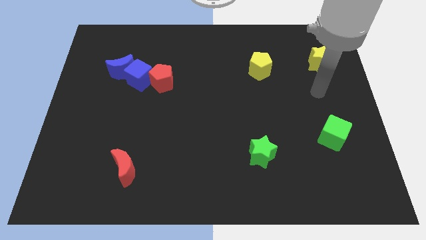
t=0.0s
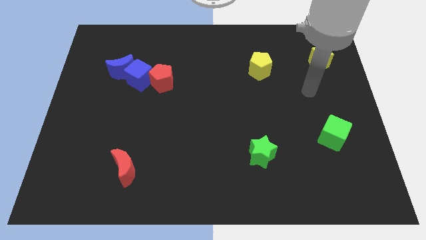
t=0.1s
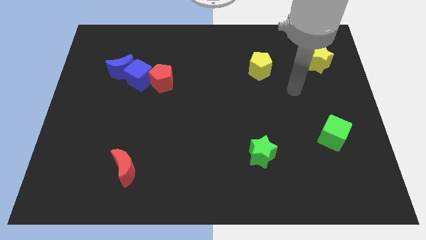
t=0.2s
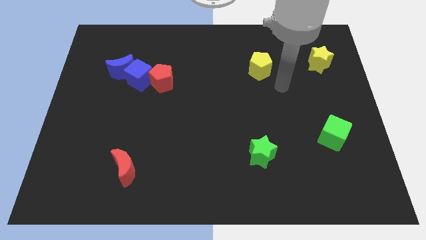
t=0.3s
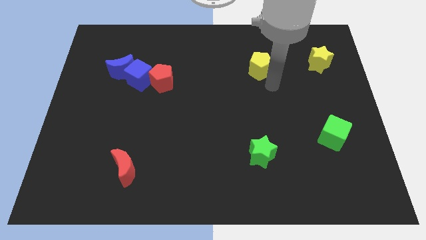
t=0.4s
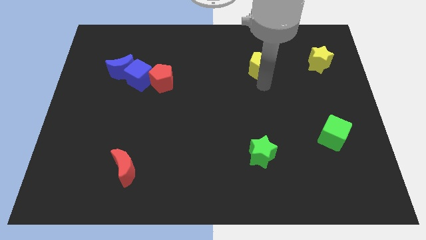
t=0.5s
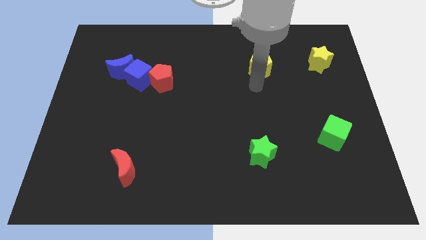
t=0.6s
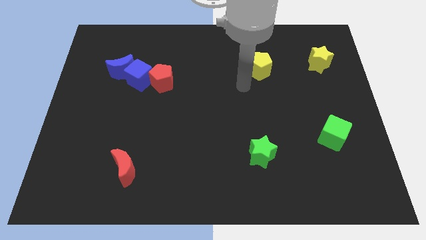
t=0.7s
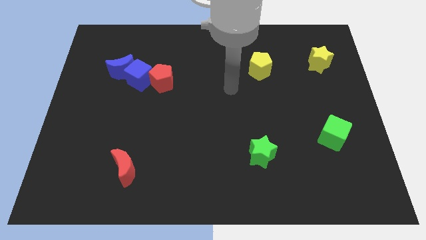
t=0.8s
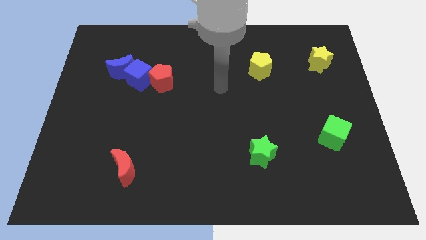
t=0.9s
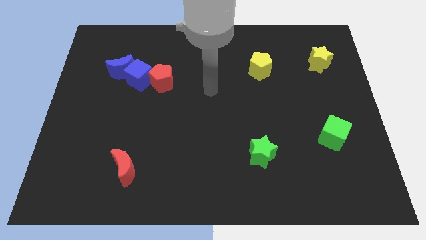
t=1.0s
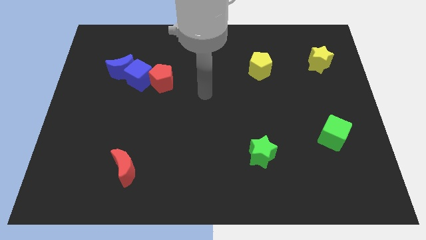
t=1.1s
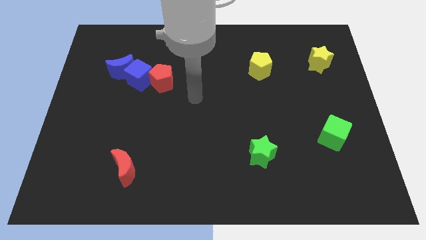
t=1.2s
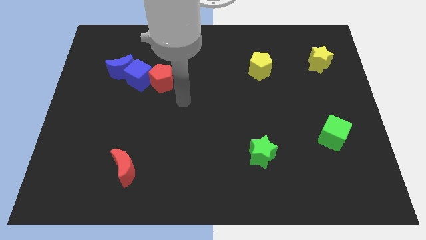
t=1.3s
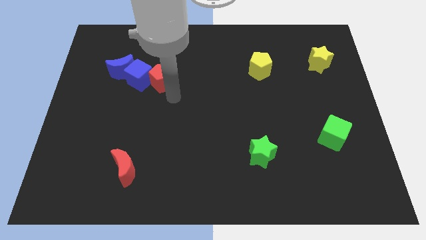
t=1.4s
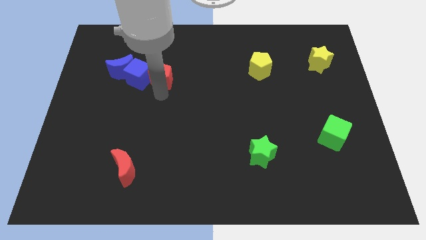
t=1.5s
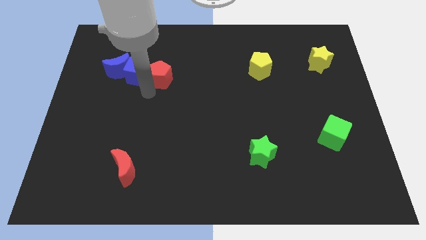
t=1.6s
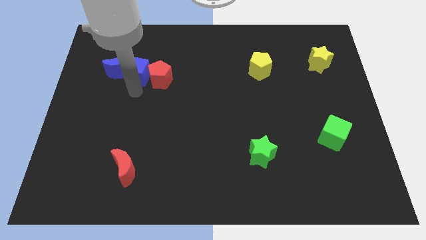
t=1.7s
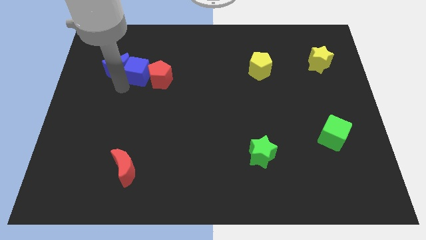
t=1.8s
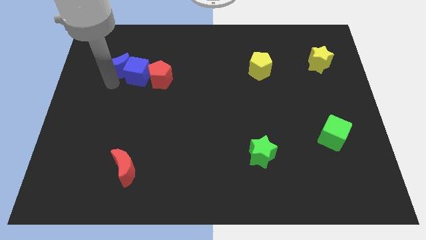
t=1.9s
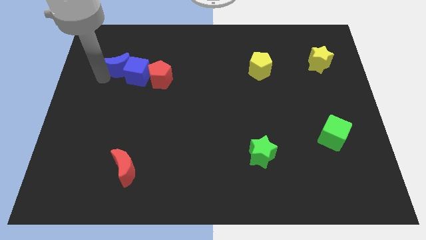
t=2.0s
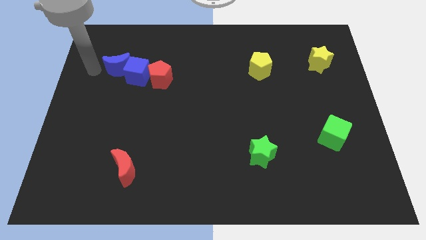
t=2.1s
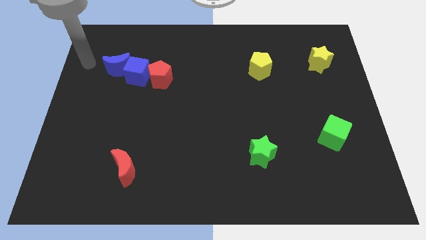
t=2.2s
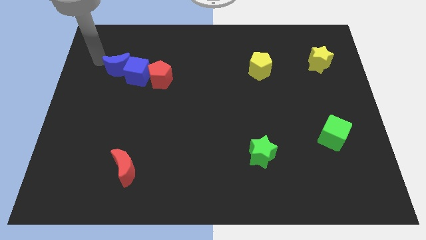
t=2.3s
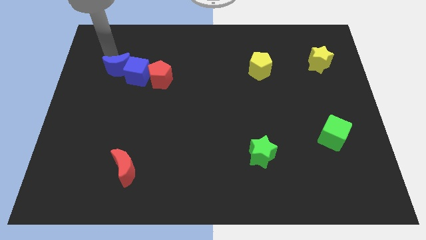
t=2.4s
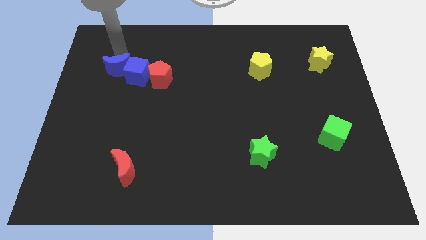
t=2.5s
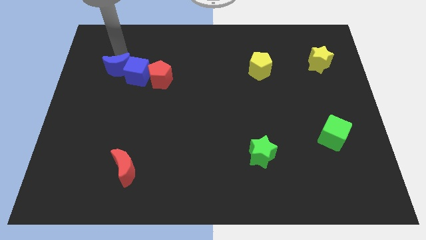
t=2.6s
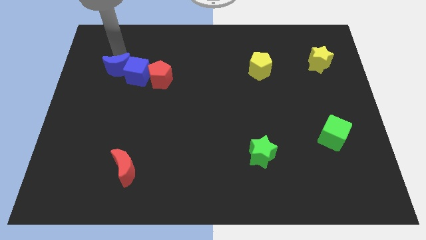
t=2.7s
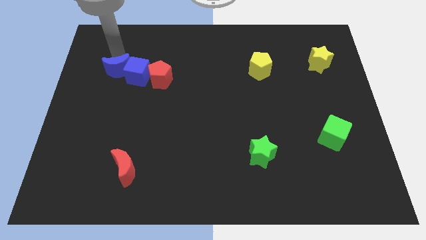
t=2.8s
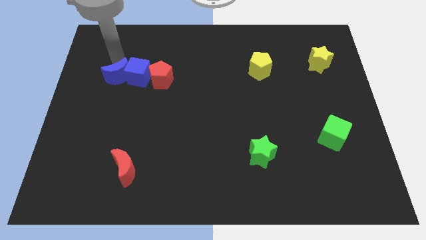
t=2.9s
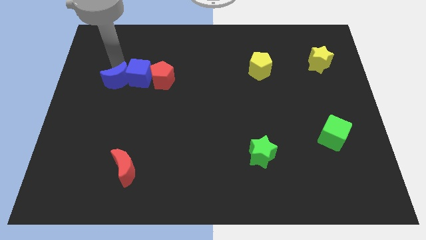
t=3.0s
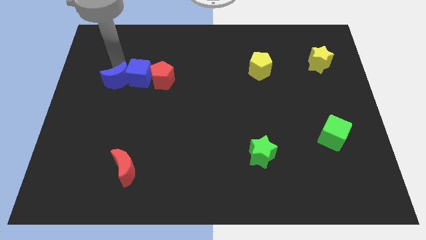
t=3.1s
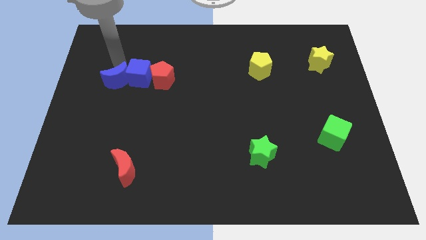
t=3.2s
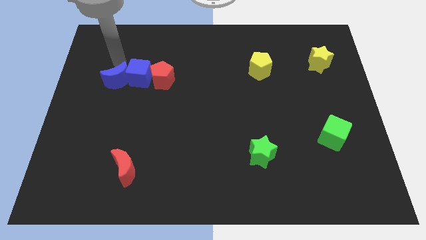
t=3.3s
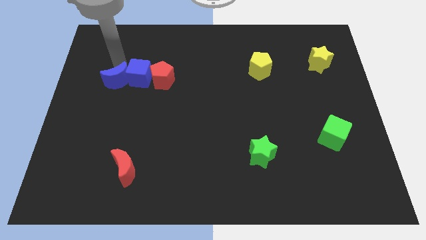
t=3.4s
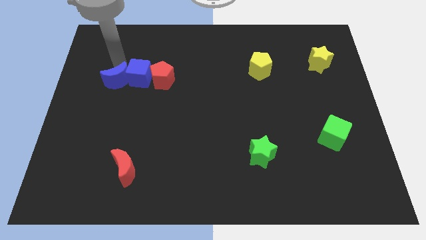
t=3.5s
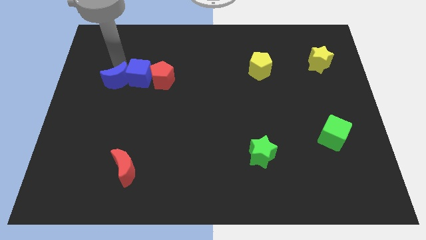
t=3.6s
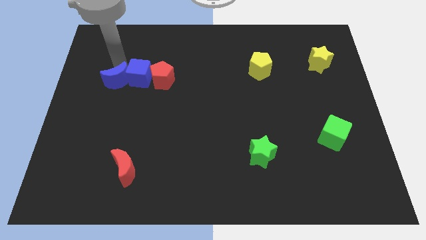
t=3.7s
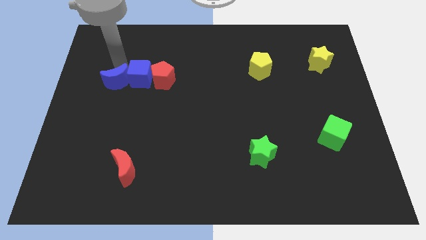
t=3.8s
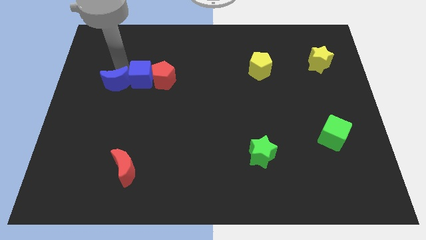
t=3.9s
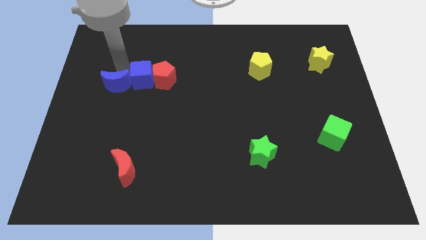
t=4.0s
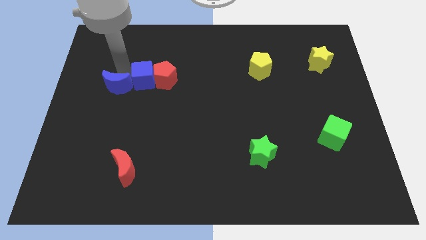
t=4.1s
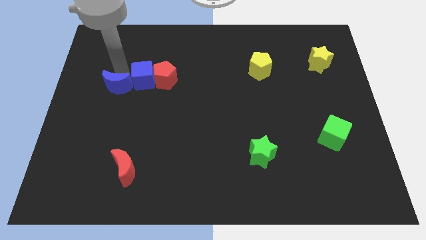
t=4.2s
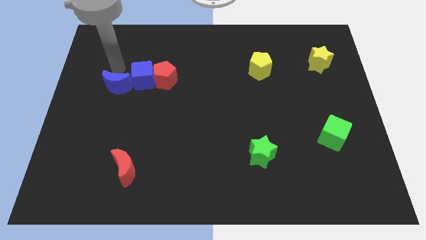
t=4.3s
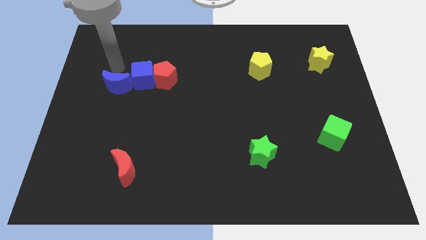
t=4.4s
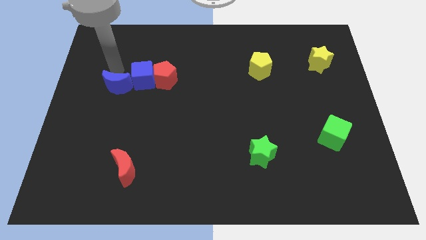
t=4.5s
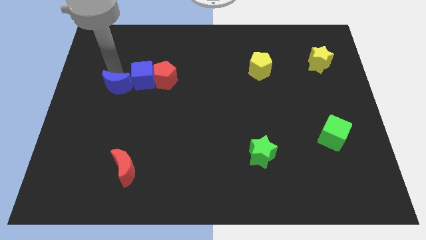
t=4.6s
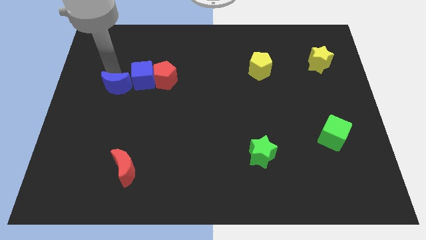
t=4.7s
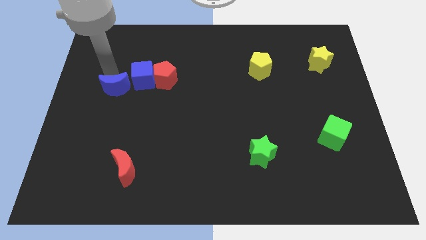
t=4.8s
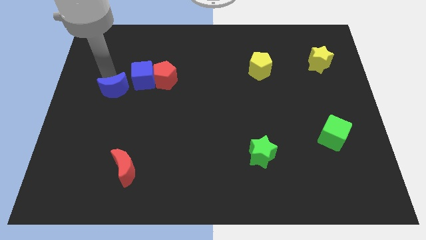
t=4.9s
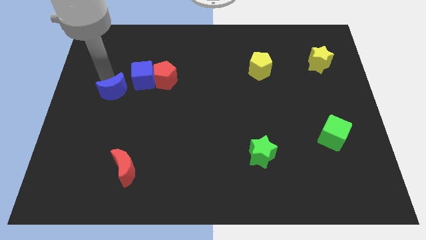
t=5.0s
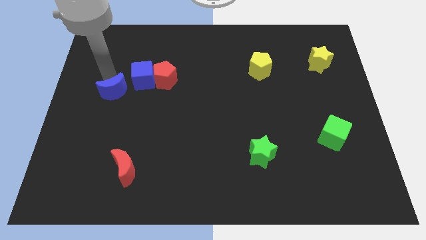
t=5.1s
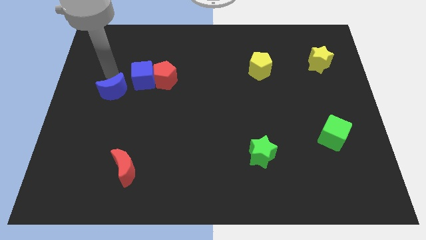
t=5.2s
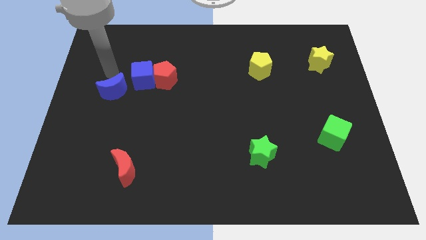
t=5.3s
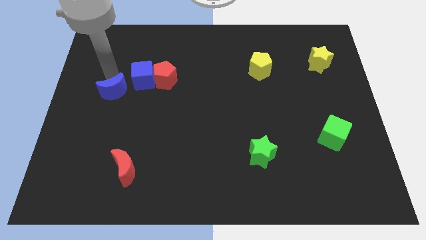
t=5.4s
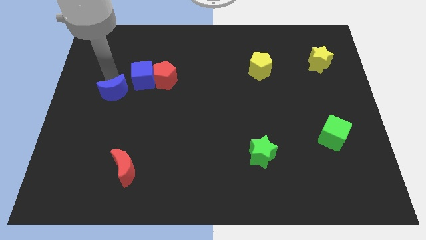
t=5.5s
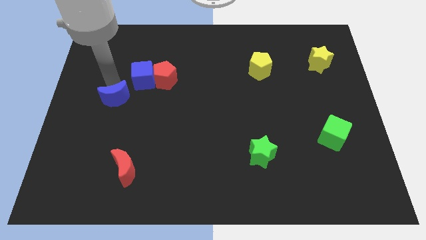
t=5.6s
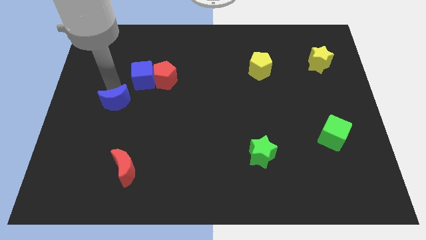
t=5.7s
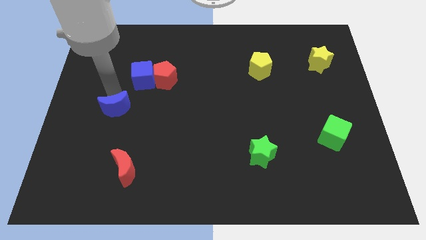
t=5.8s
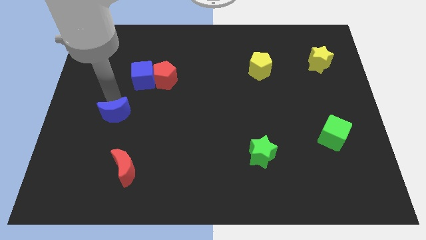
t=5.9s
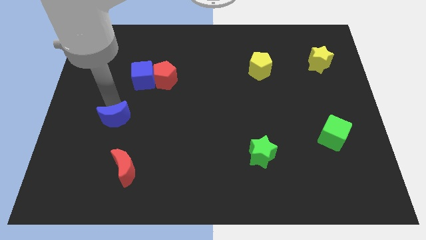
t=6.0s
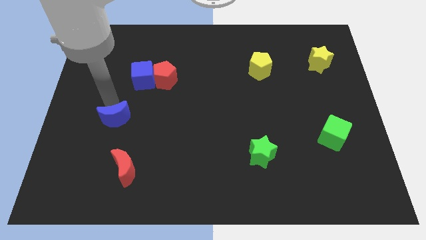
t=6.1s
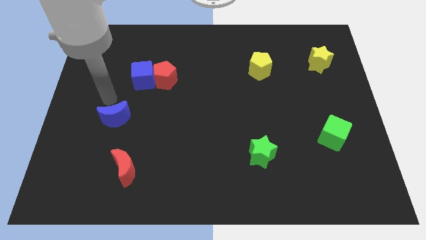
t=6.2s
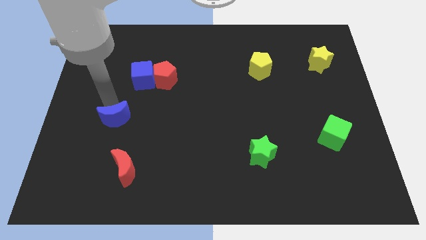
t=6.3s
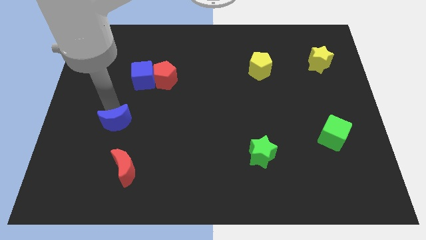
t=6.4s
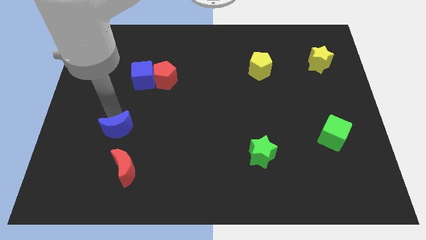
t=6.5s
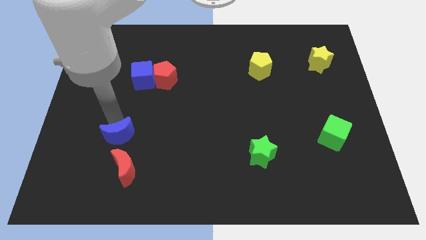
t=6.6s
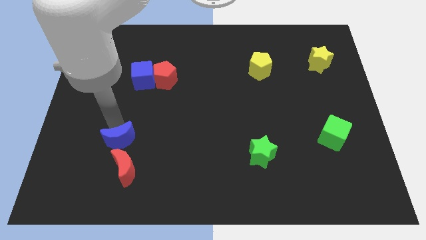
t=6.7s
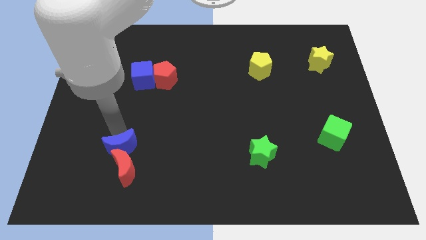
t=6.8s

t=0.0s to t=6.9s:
move the blue moon towards the red moon

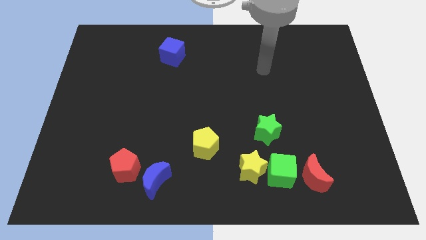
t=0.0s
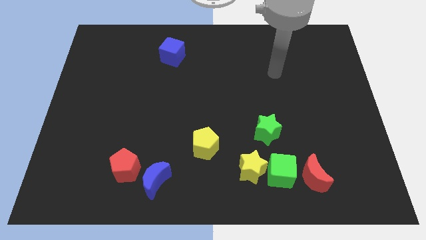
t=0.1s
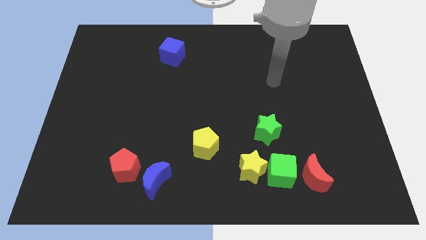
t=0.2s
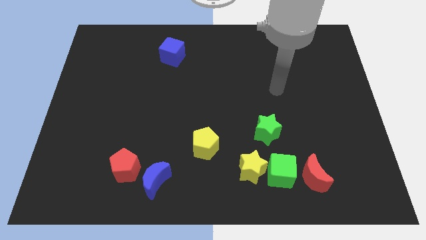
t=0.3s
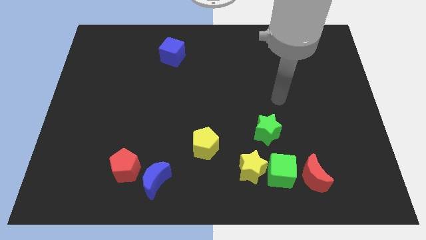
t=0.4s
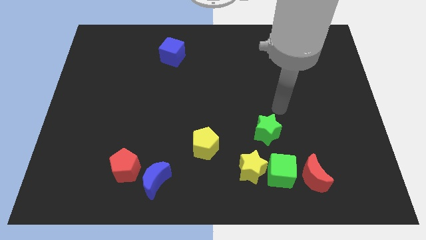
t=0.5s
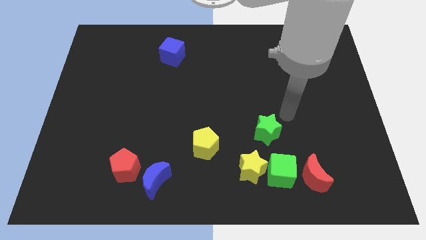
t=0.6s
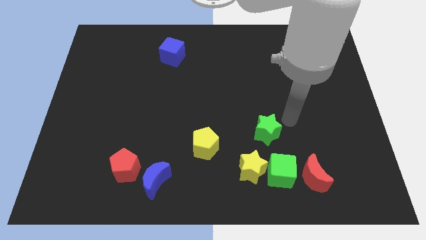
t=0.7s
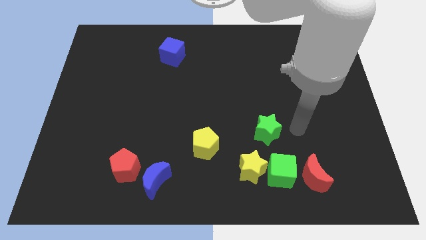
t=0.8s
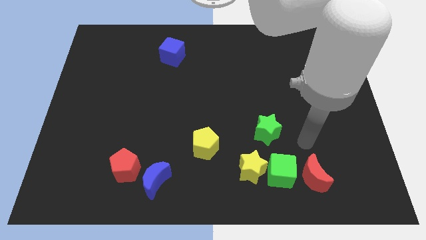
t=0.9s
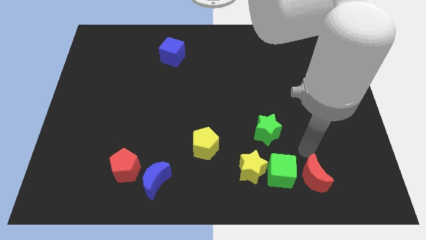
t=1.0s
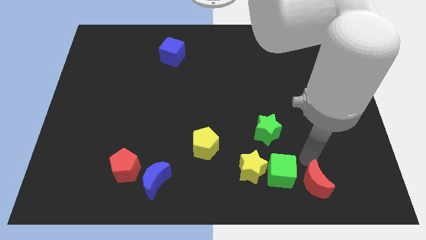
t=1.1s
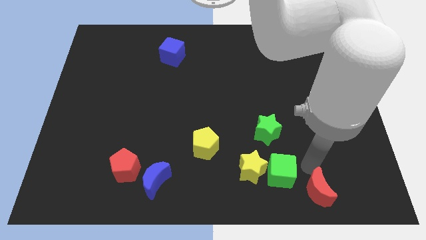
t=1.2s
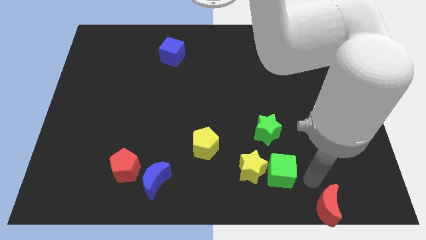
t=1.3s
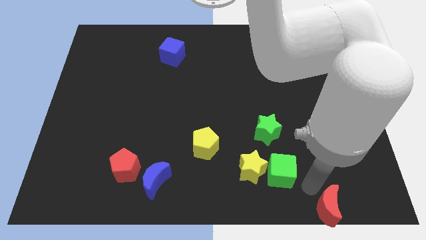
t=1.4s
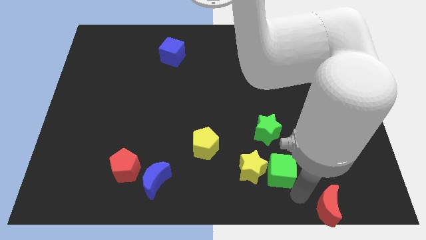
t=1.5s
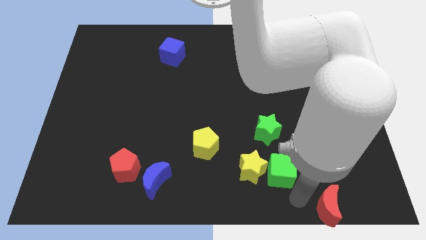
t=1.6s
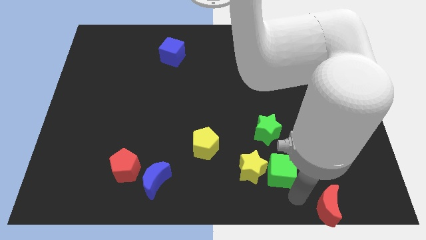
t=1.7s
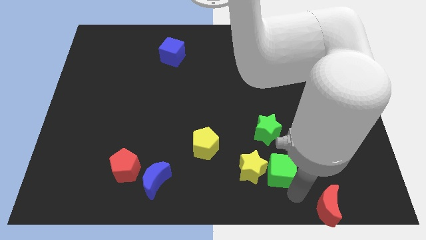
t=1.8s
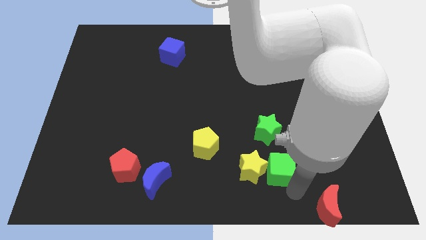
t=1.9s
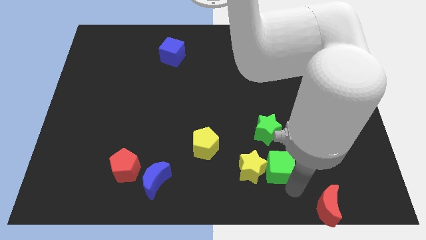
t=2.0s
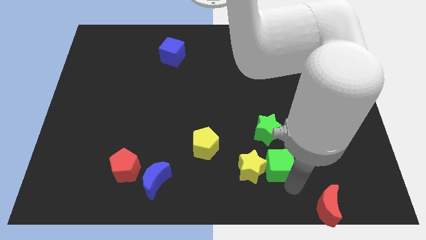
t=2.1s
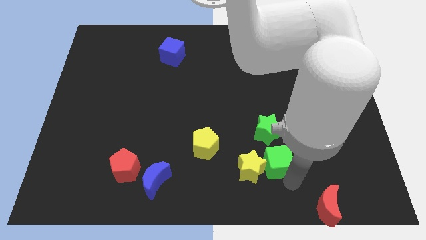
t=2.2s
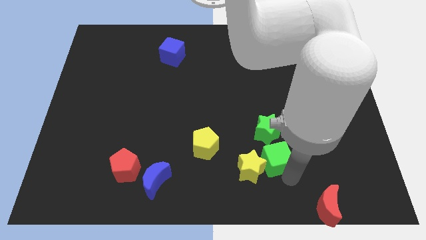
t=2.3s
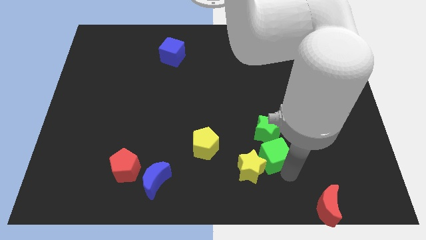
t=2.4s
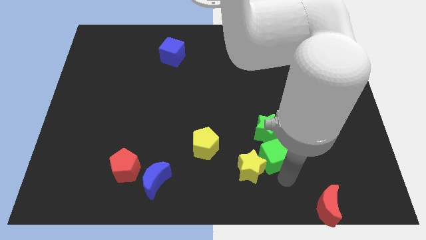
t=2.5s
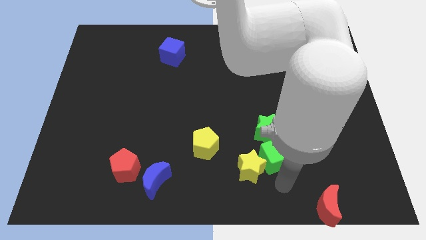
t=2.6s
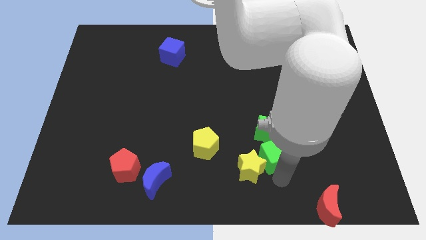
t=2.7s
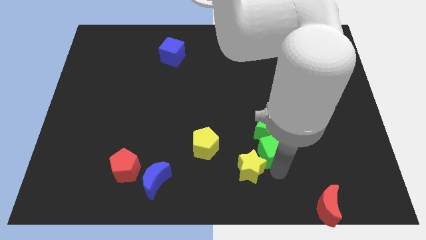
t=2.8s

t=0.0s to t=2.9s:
slide the green cube next to the green star
